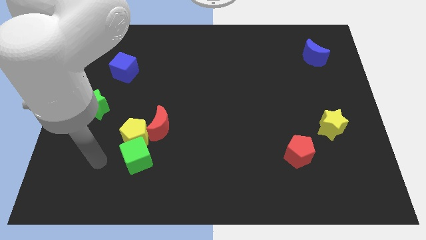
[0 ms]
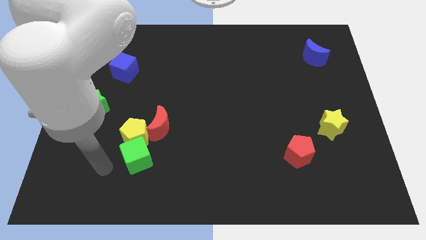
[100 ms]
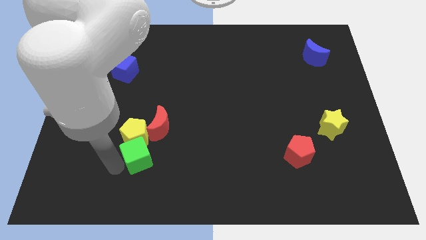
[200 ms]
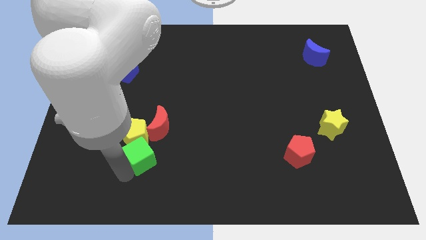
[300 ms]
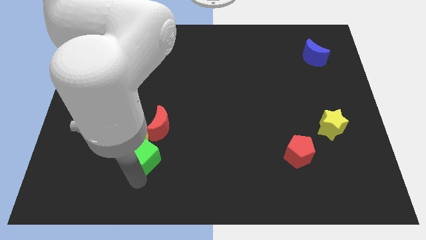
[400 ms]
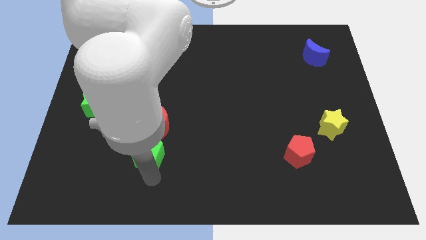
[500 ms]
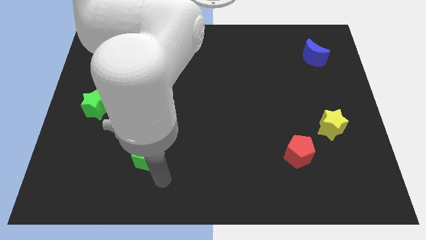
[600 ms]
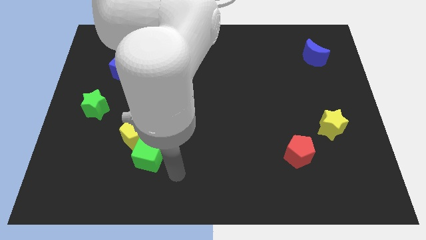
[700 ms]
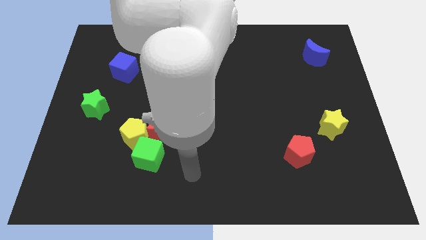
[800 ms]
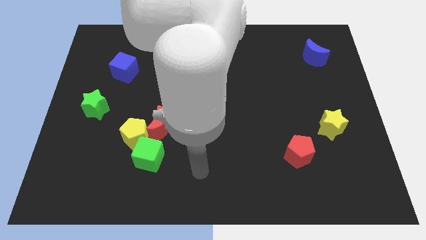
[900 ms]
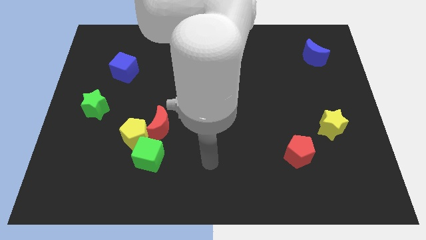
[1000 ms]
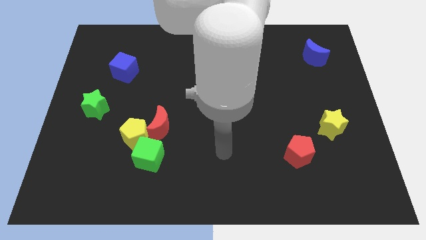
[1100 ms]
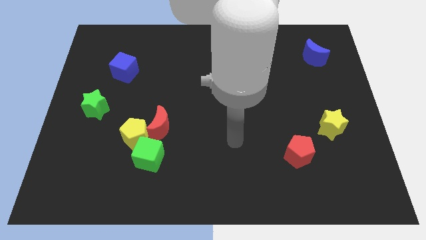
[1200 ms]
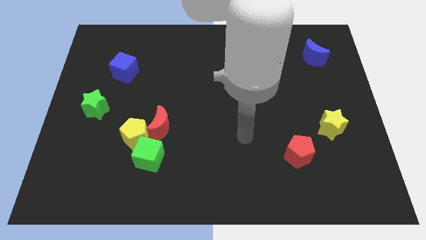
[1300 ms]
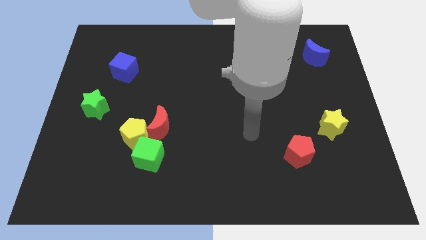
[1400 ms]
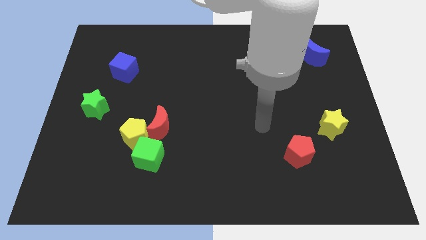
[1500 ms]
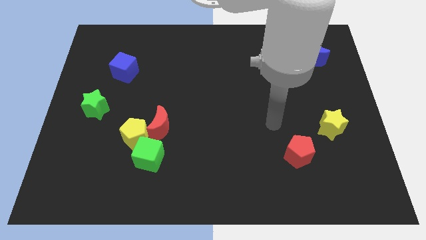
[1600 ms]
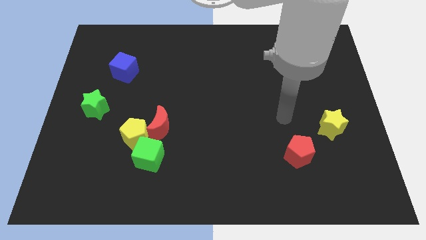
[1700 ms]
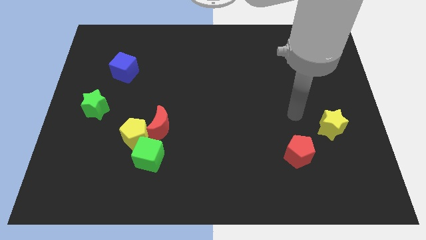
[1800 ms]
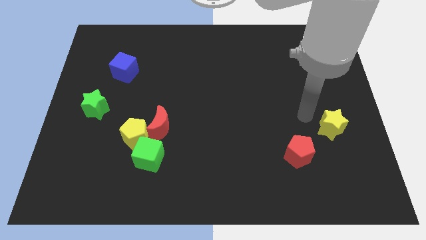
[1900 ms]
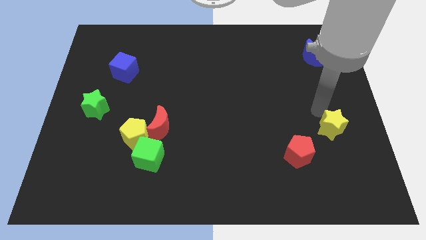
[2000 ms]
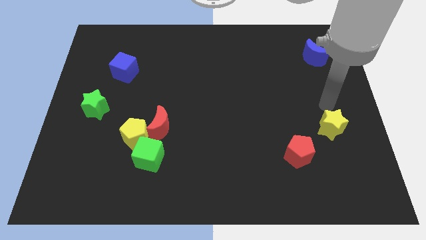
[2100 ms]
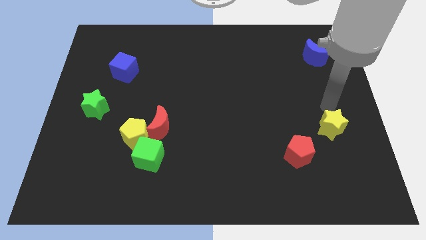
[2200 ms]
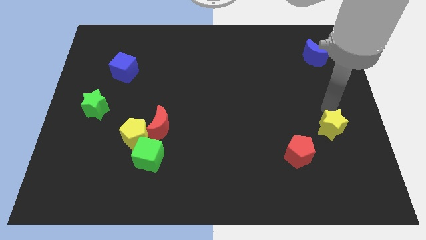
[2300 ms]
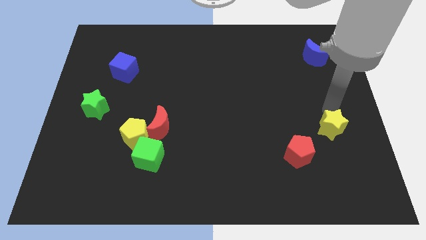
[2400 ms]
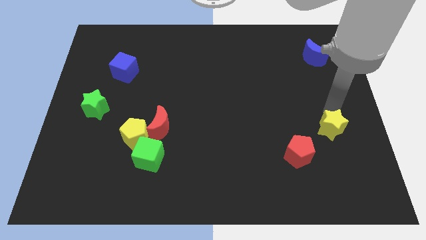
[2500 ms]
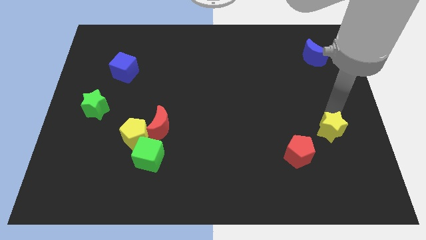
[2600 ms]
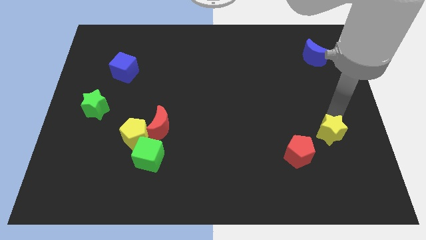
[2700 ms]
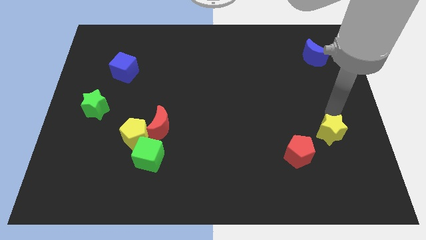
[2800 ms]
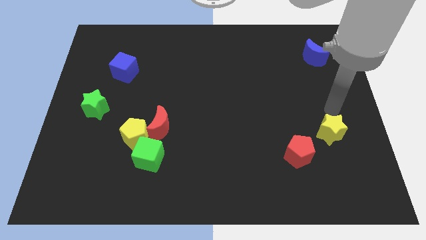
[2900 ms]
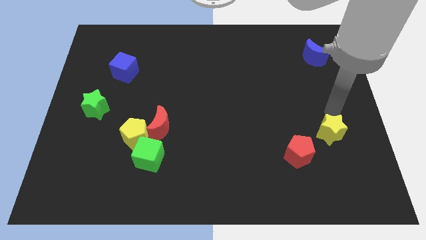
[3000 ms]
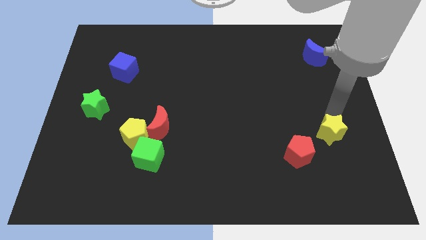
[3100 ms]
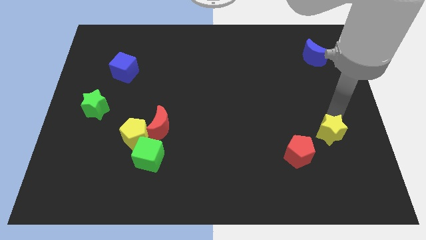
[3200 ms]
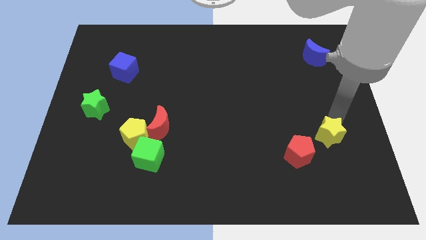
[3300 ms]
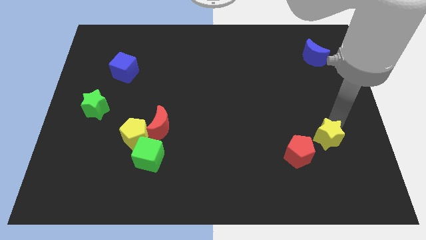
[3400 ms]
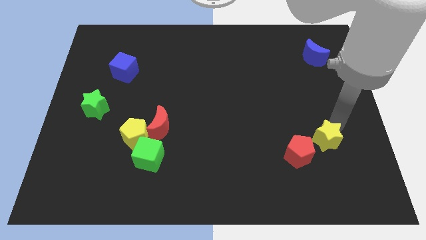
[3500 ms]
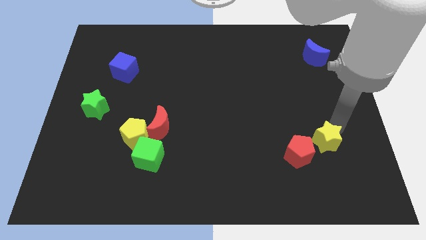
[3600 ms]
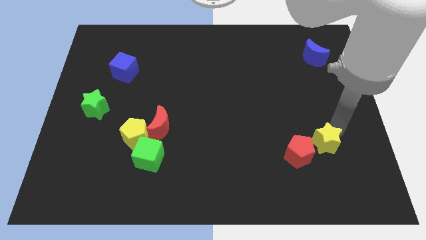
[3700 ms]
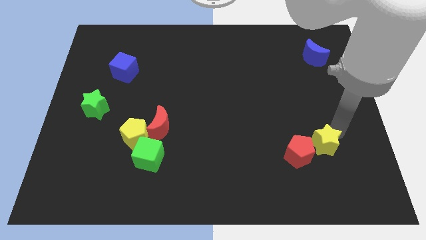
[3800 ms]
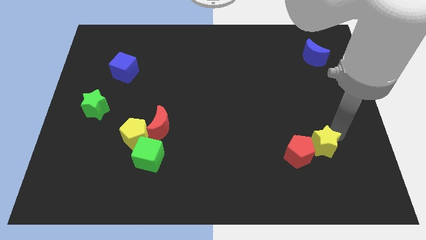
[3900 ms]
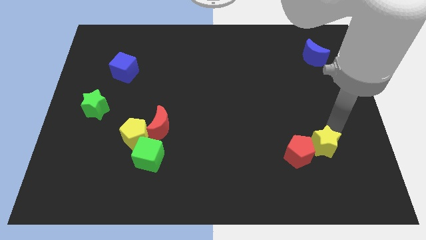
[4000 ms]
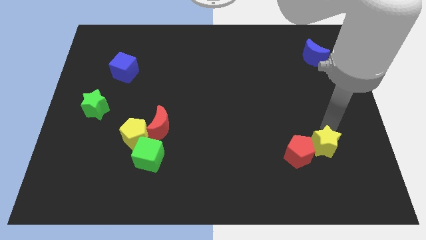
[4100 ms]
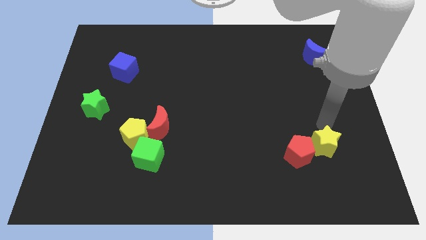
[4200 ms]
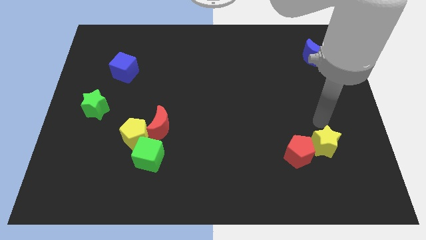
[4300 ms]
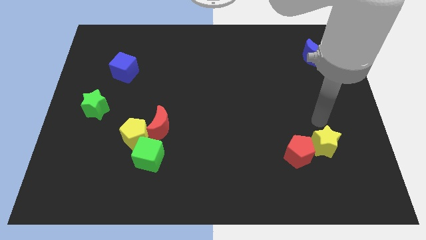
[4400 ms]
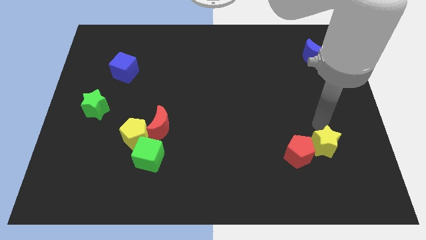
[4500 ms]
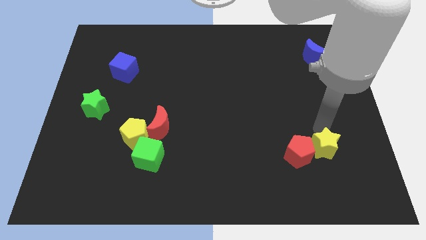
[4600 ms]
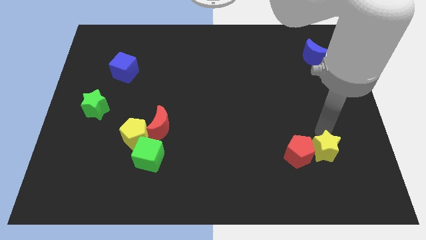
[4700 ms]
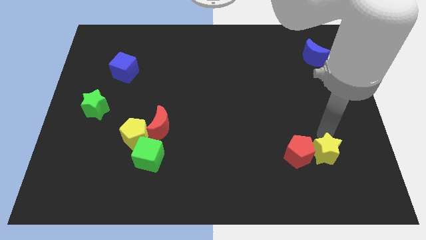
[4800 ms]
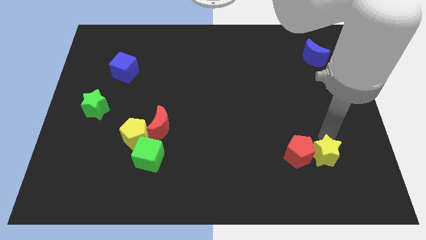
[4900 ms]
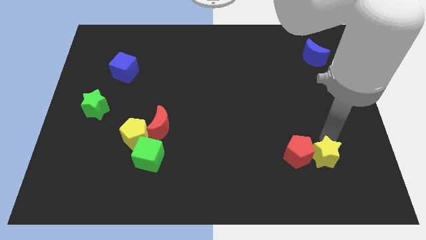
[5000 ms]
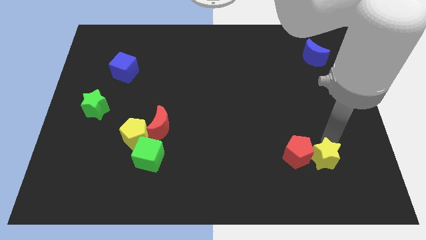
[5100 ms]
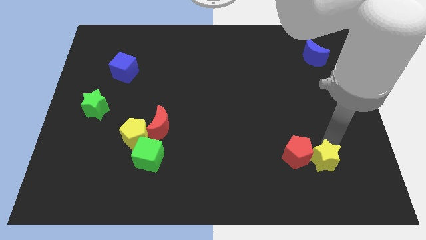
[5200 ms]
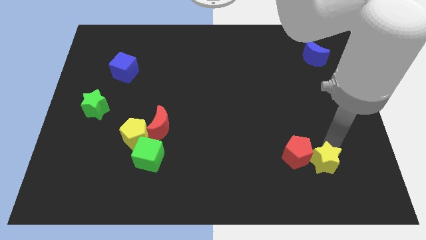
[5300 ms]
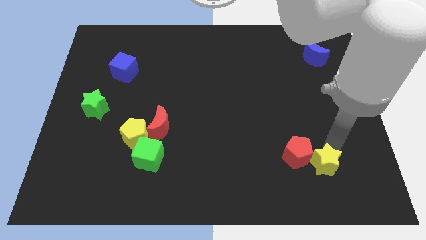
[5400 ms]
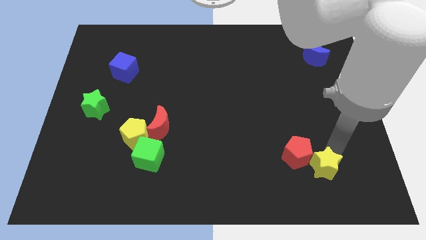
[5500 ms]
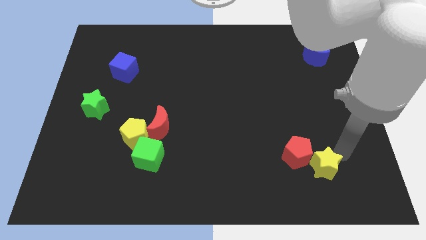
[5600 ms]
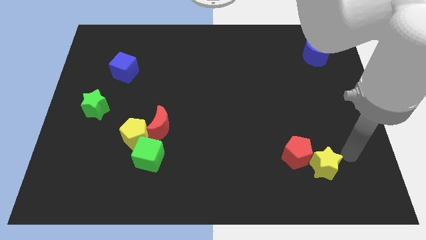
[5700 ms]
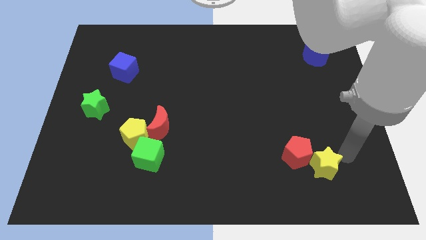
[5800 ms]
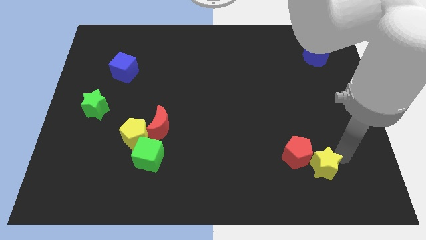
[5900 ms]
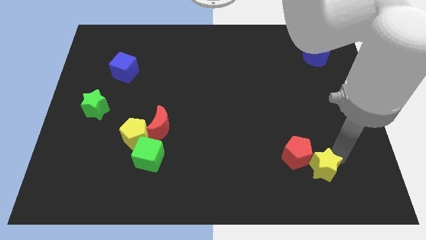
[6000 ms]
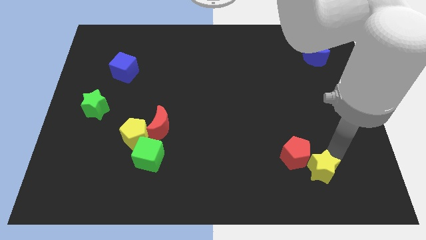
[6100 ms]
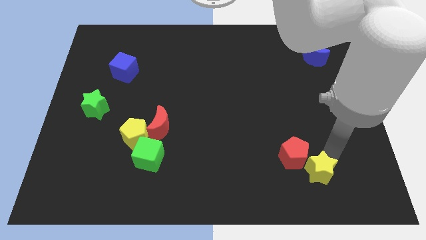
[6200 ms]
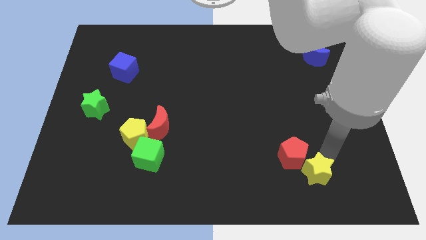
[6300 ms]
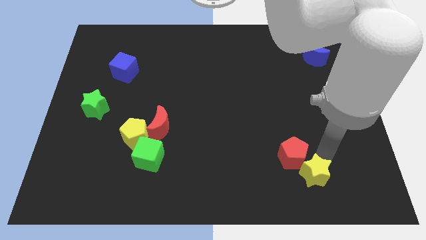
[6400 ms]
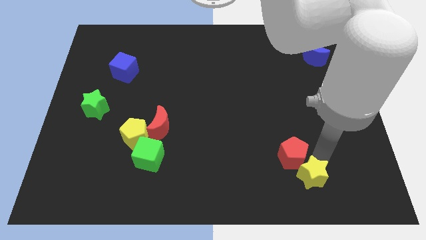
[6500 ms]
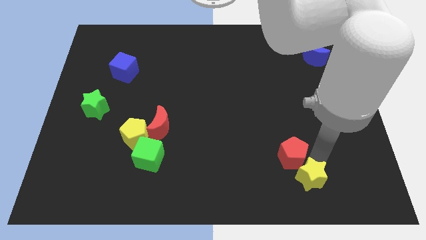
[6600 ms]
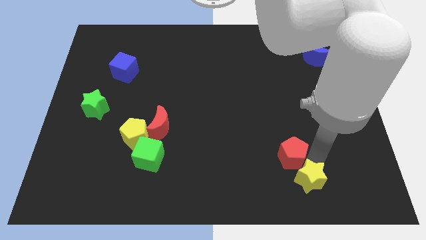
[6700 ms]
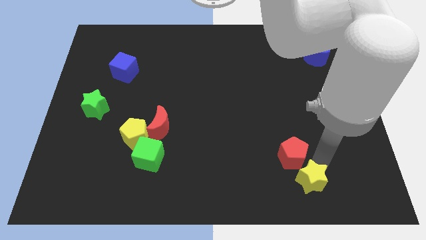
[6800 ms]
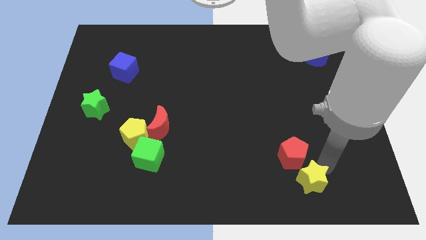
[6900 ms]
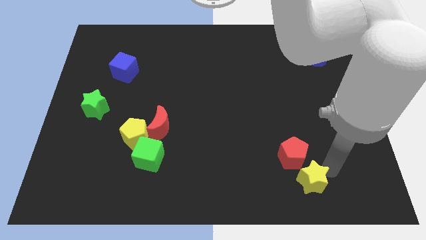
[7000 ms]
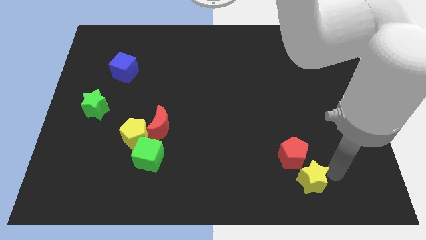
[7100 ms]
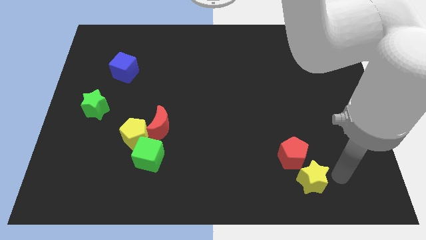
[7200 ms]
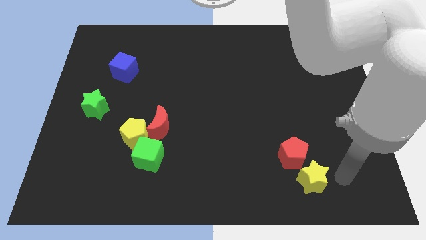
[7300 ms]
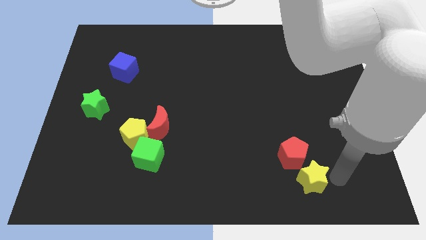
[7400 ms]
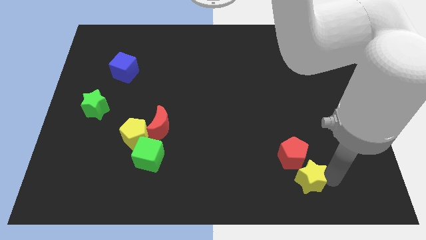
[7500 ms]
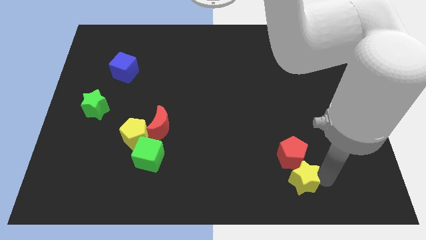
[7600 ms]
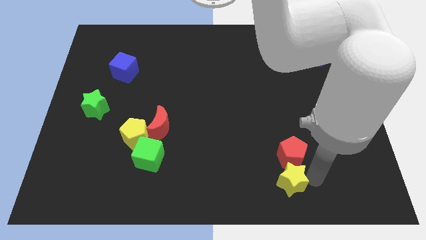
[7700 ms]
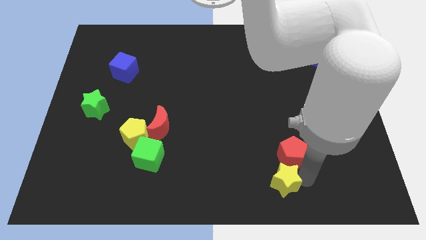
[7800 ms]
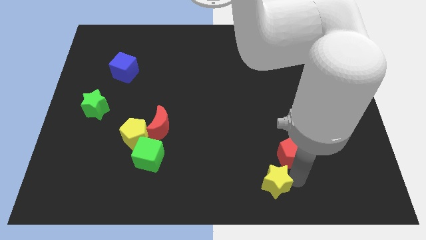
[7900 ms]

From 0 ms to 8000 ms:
push the yellow star to the bottom side
